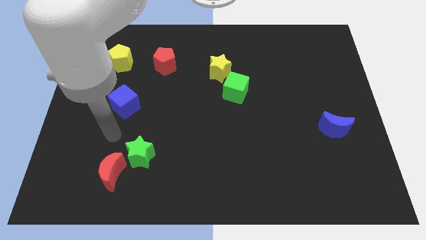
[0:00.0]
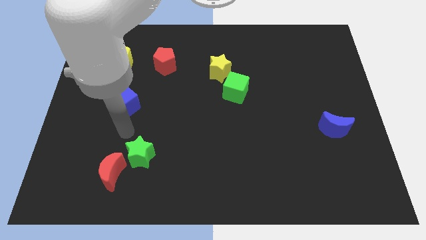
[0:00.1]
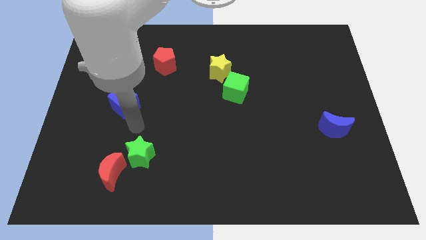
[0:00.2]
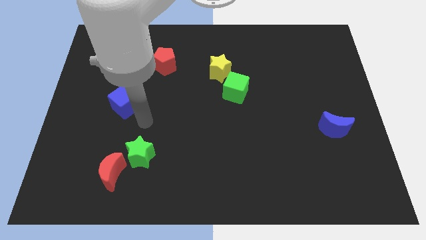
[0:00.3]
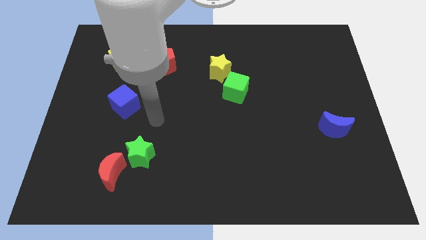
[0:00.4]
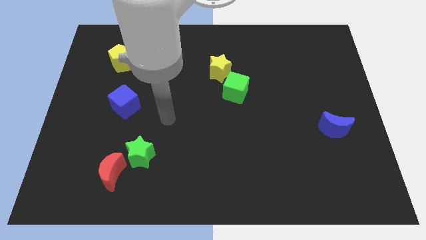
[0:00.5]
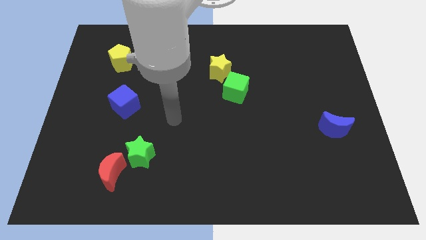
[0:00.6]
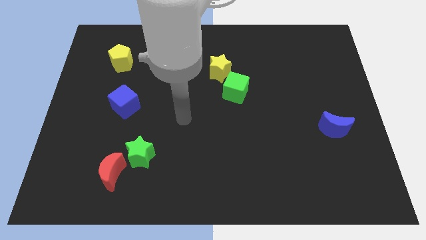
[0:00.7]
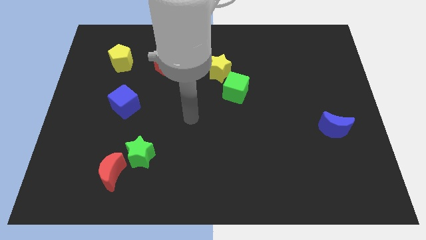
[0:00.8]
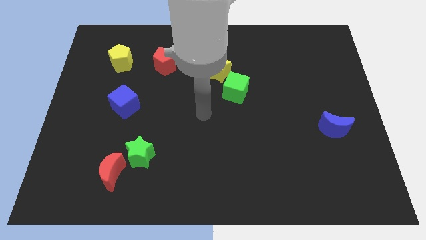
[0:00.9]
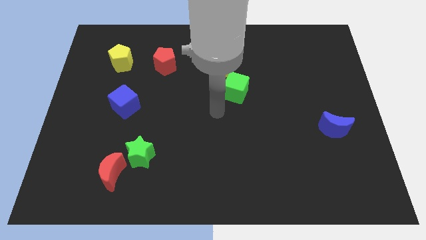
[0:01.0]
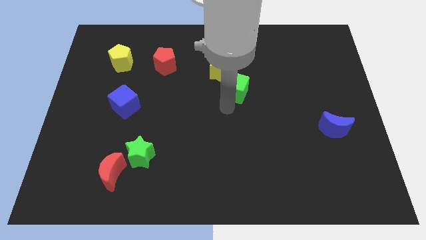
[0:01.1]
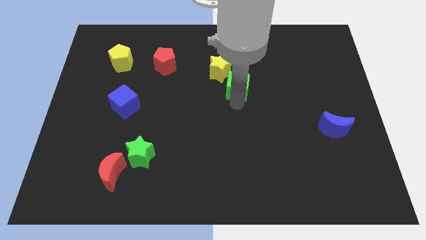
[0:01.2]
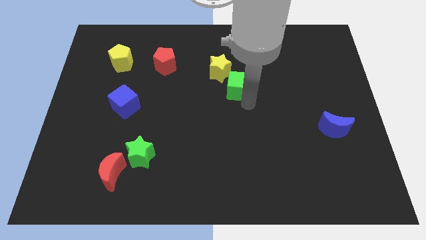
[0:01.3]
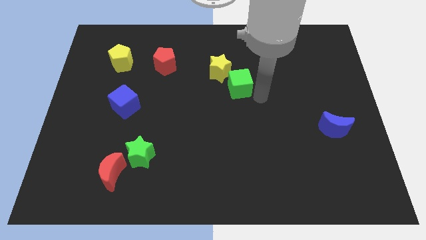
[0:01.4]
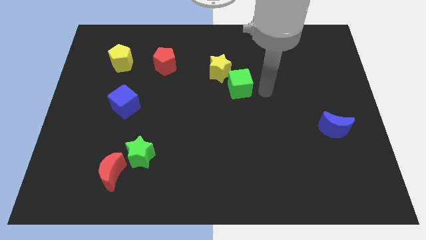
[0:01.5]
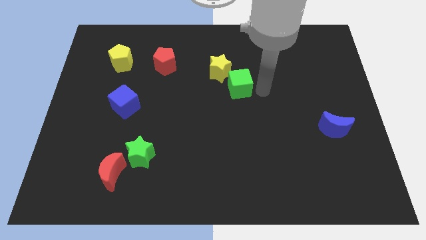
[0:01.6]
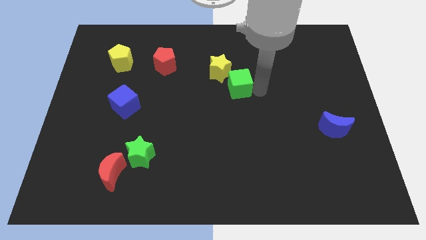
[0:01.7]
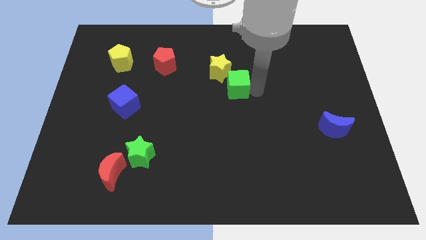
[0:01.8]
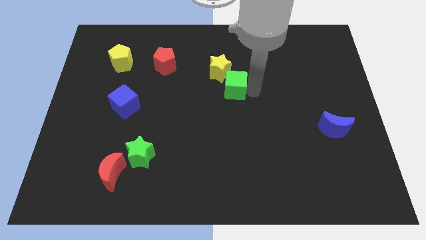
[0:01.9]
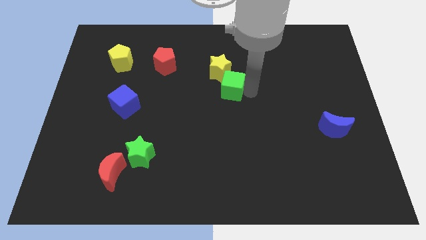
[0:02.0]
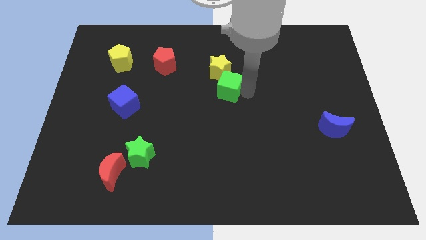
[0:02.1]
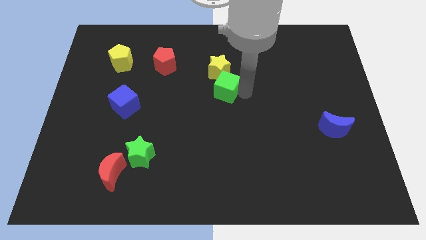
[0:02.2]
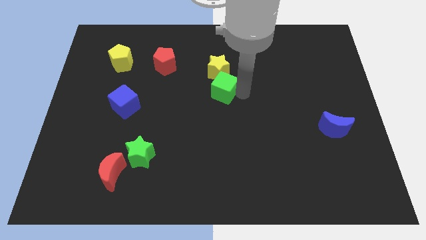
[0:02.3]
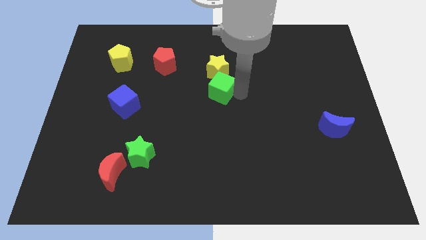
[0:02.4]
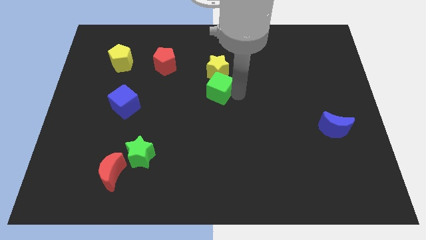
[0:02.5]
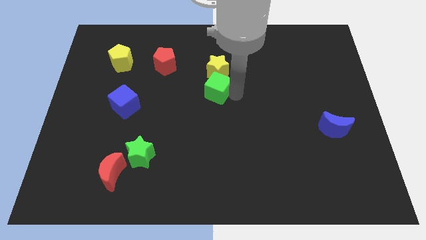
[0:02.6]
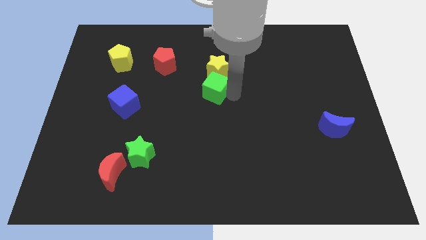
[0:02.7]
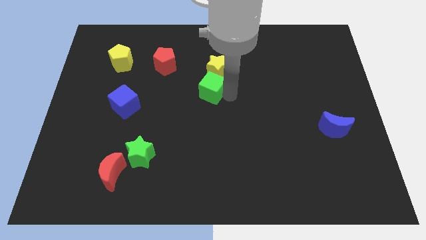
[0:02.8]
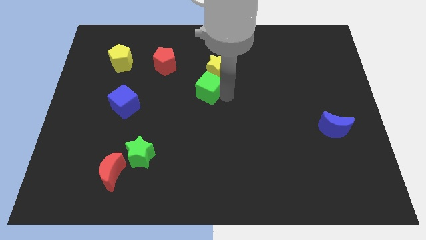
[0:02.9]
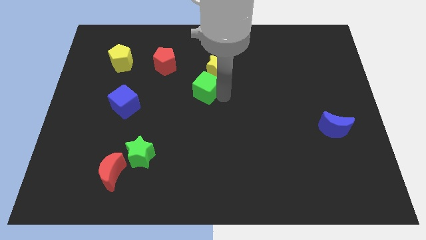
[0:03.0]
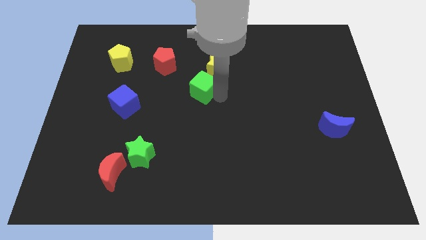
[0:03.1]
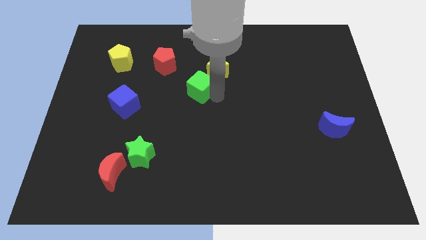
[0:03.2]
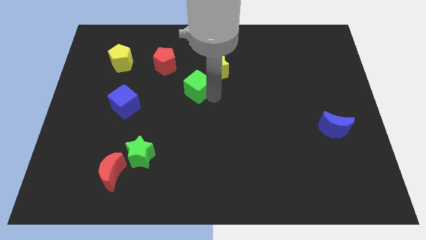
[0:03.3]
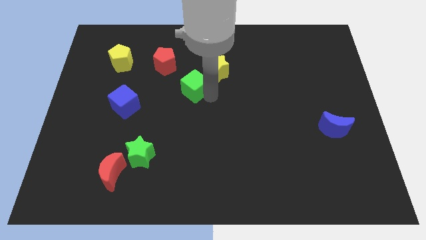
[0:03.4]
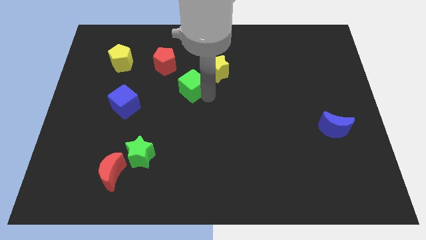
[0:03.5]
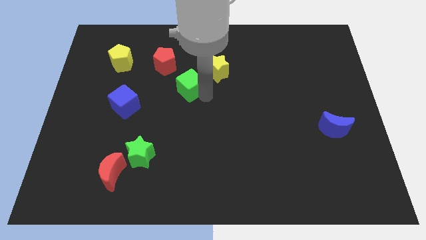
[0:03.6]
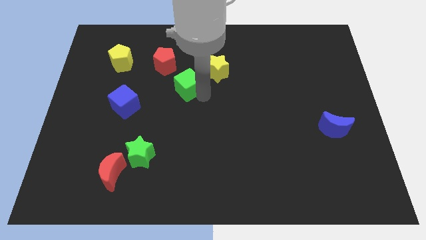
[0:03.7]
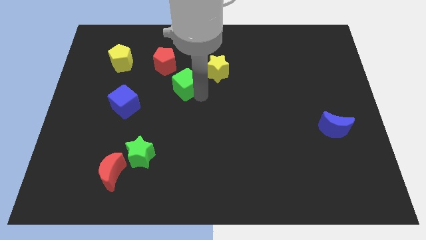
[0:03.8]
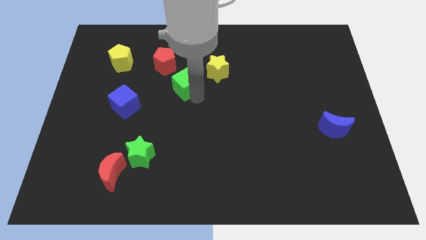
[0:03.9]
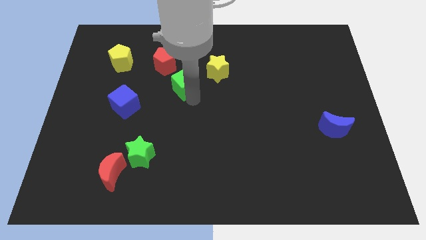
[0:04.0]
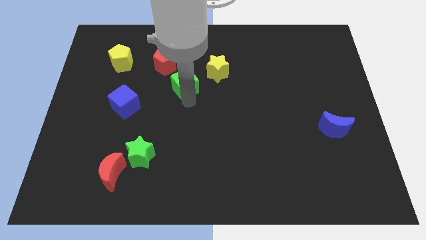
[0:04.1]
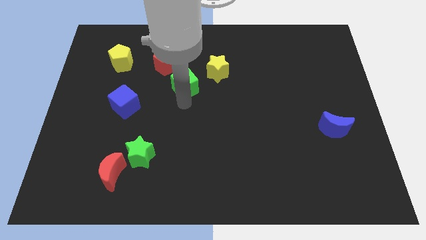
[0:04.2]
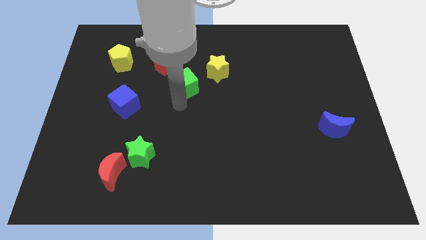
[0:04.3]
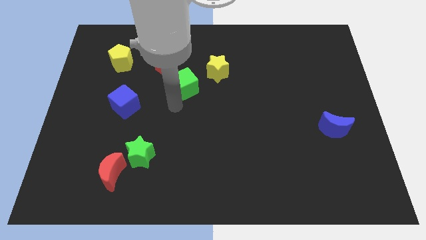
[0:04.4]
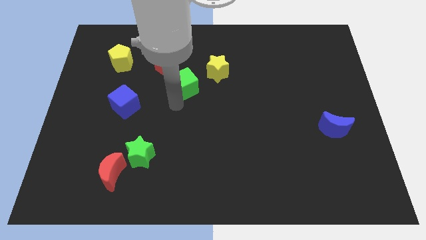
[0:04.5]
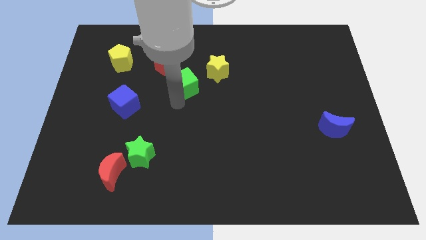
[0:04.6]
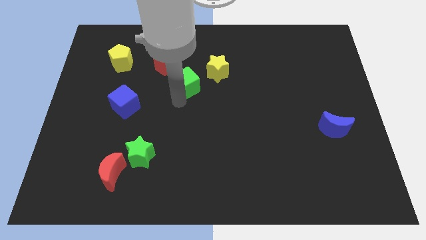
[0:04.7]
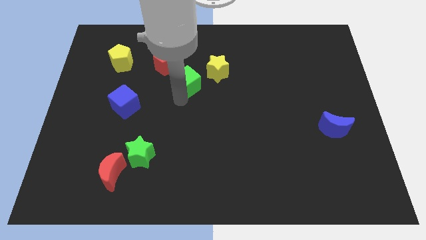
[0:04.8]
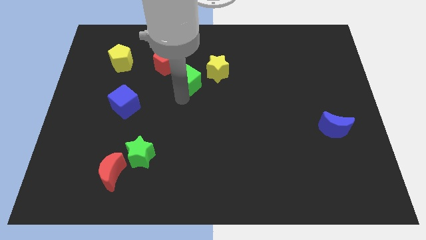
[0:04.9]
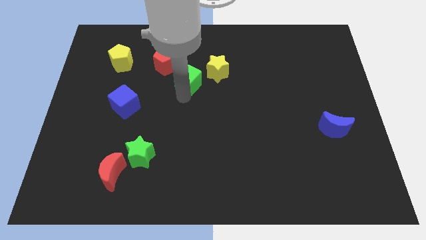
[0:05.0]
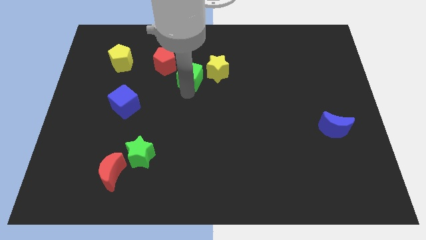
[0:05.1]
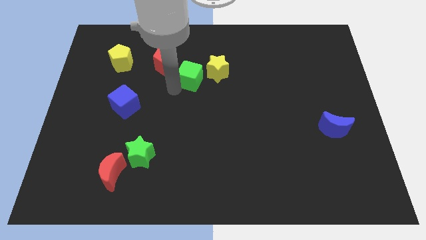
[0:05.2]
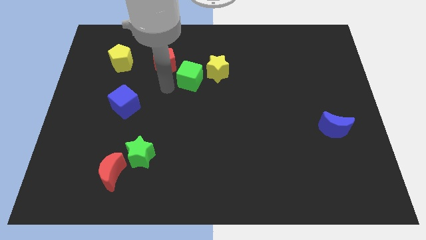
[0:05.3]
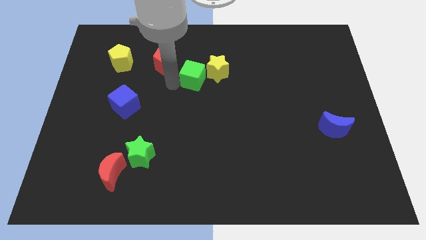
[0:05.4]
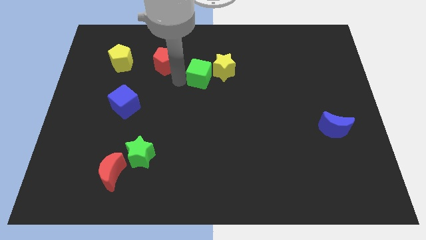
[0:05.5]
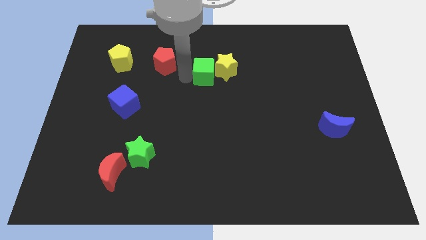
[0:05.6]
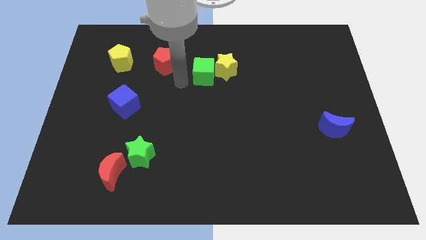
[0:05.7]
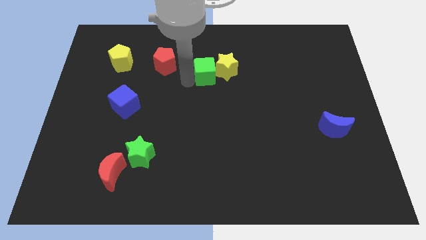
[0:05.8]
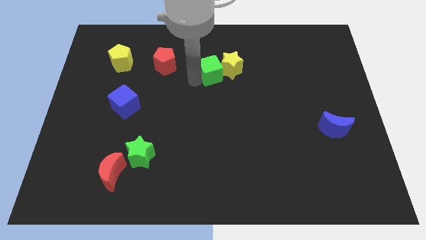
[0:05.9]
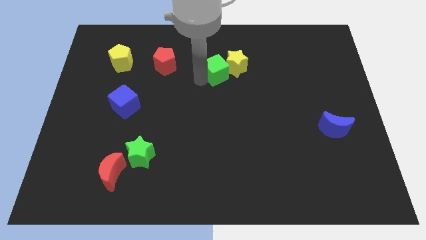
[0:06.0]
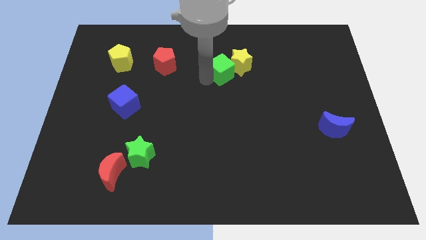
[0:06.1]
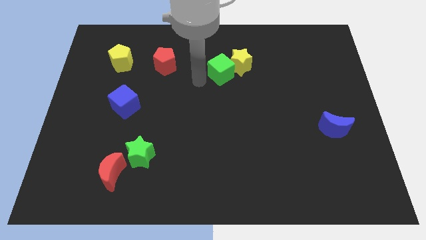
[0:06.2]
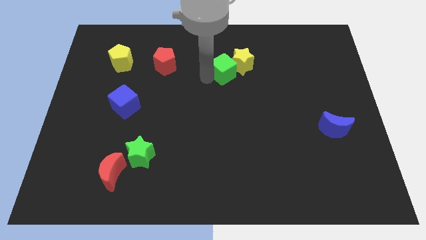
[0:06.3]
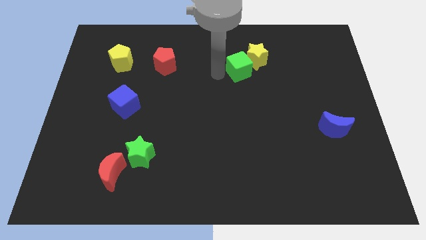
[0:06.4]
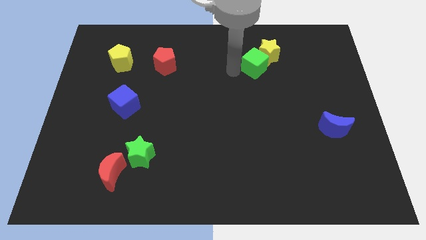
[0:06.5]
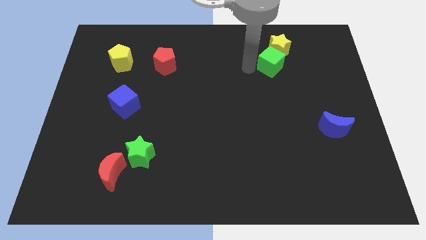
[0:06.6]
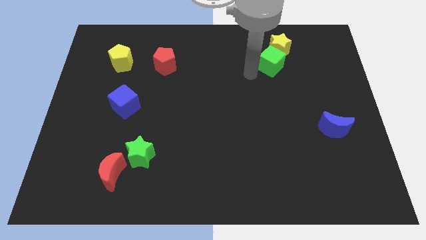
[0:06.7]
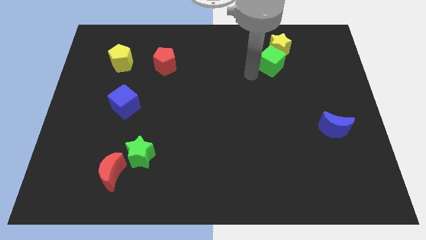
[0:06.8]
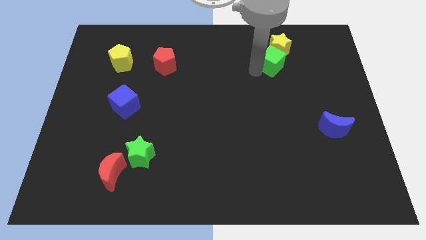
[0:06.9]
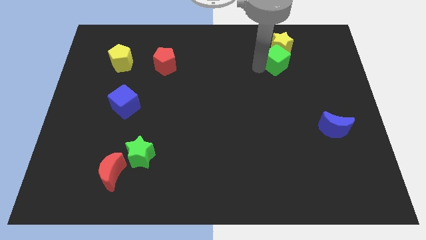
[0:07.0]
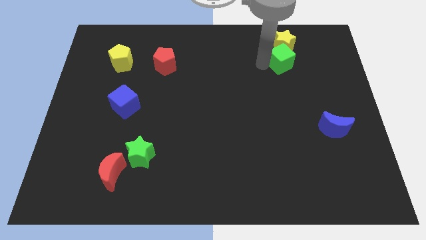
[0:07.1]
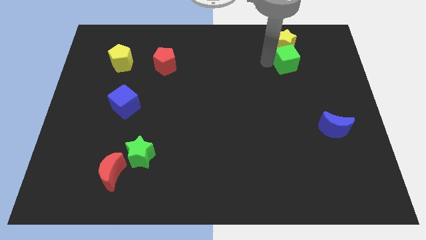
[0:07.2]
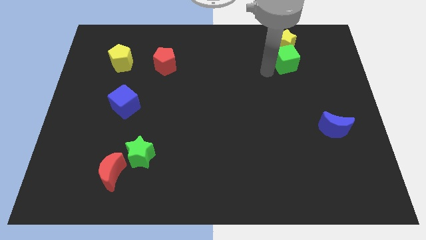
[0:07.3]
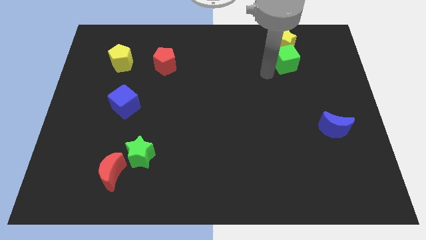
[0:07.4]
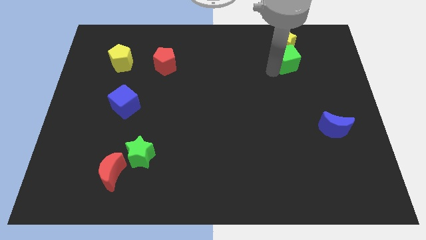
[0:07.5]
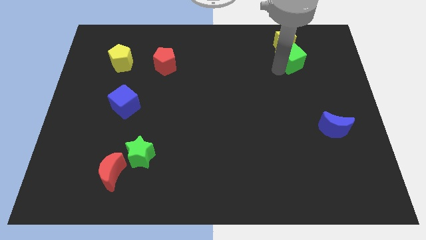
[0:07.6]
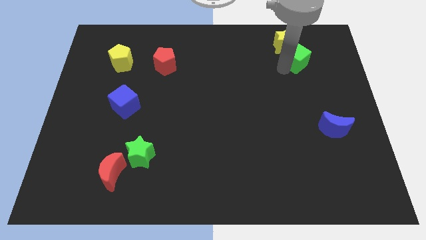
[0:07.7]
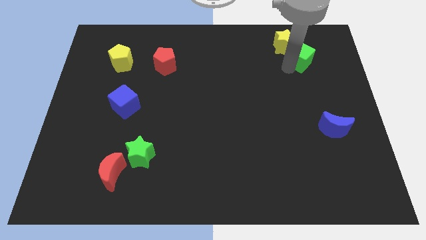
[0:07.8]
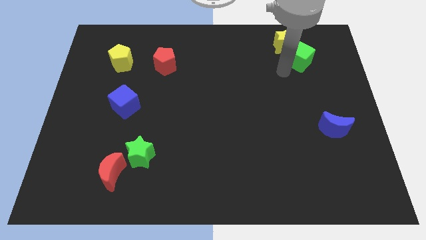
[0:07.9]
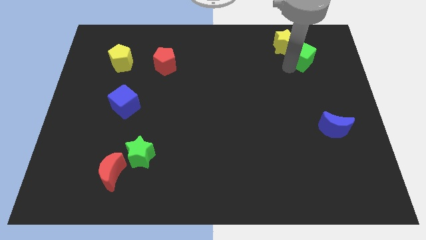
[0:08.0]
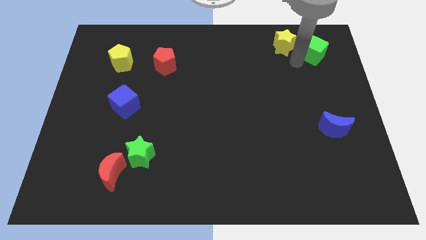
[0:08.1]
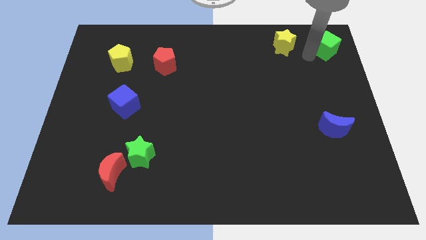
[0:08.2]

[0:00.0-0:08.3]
move the green cube to the top right corner
